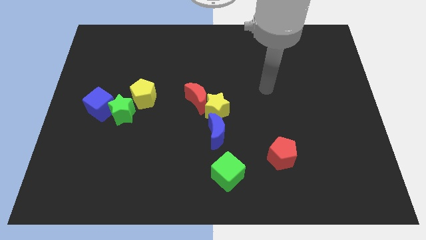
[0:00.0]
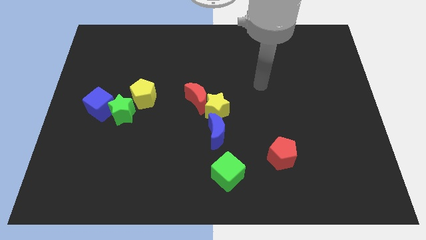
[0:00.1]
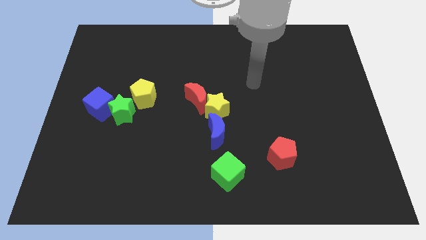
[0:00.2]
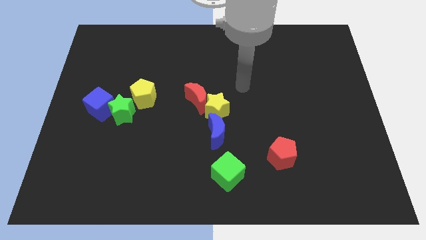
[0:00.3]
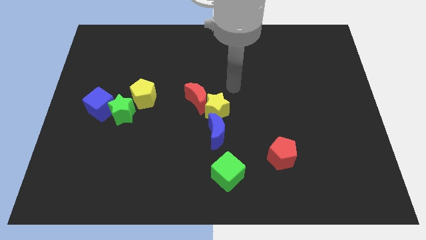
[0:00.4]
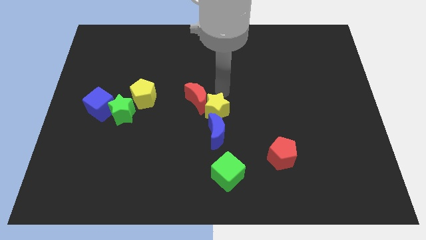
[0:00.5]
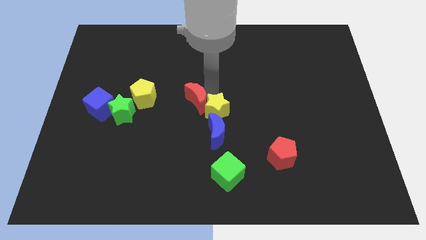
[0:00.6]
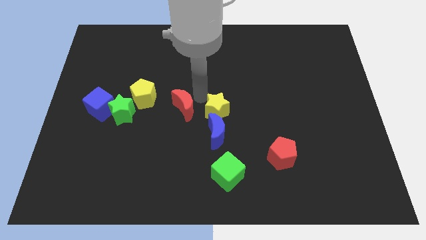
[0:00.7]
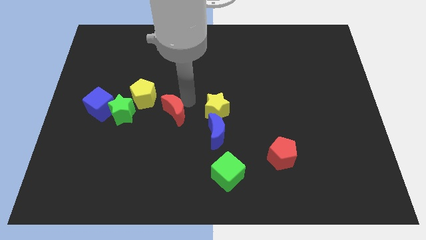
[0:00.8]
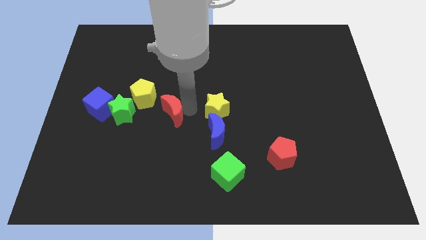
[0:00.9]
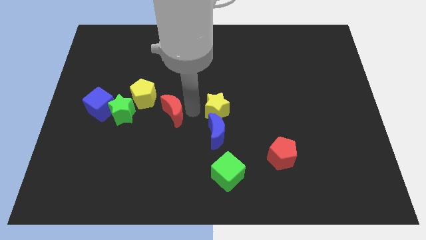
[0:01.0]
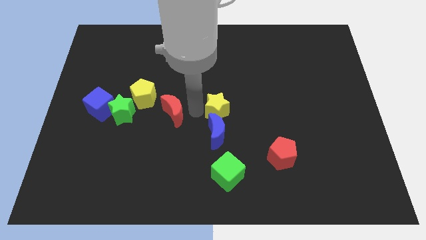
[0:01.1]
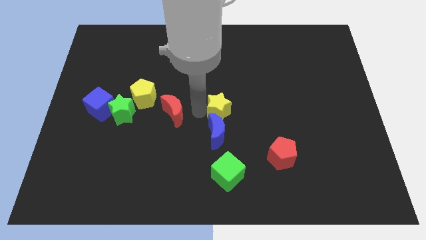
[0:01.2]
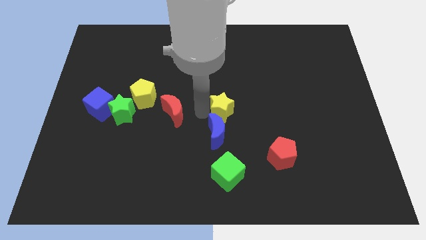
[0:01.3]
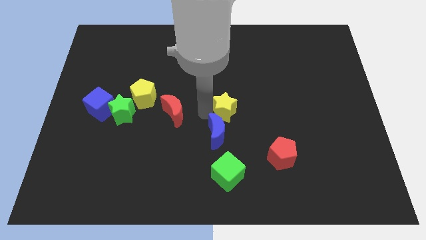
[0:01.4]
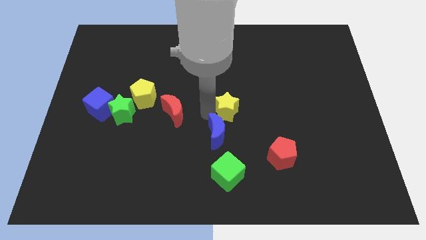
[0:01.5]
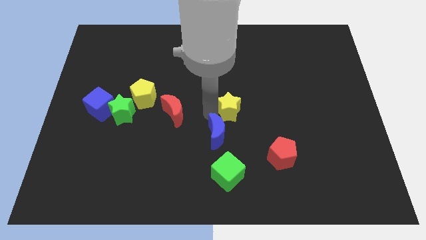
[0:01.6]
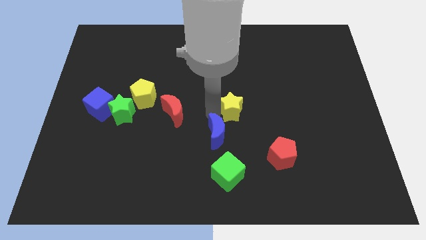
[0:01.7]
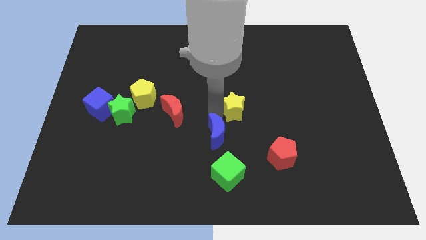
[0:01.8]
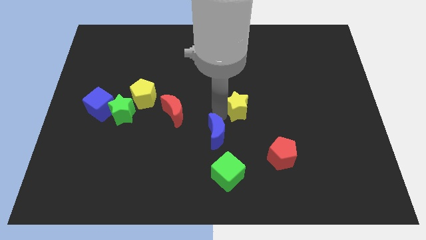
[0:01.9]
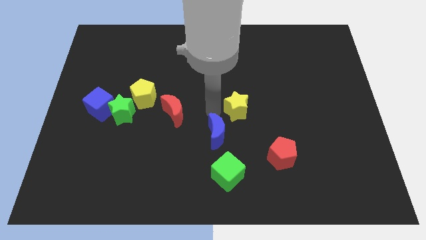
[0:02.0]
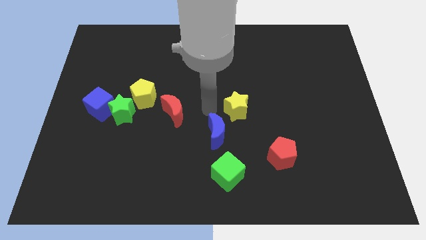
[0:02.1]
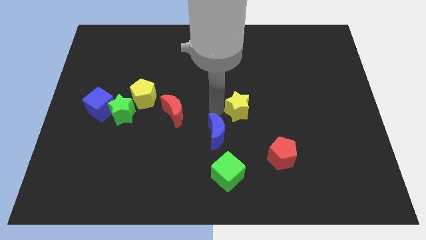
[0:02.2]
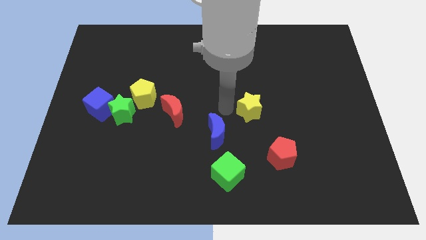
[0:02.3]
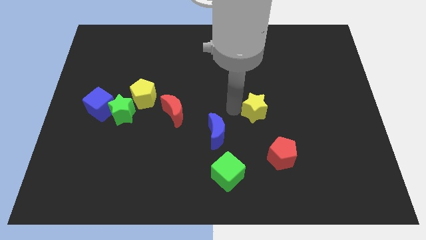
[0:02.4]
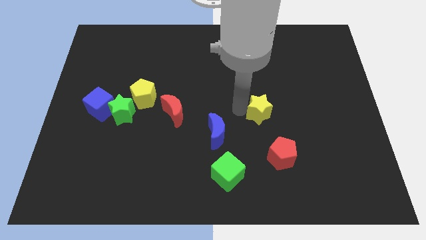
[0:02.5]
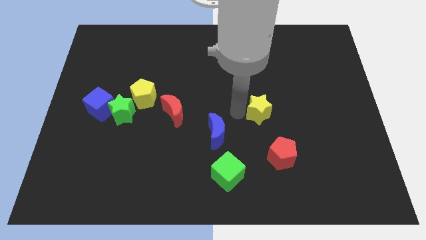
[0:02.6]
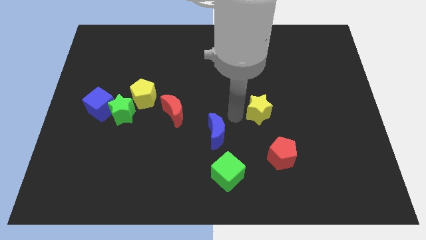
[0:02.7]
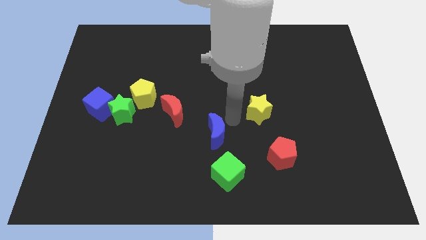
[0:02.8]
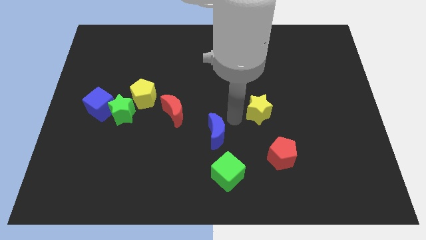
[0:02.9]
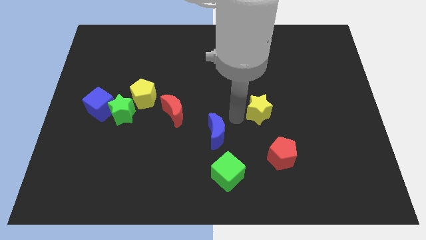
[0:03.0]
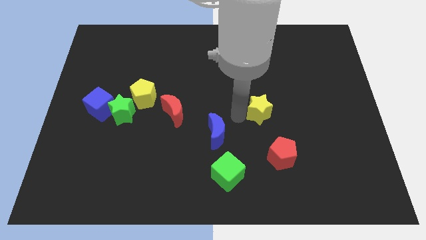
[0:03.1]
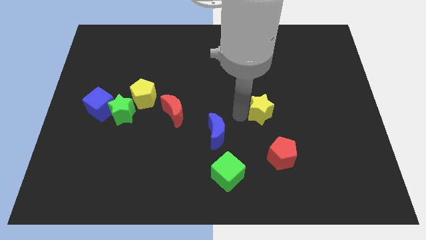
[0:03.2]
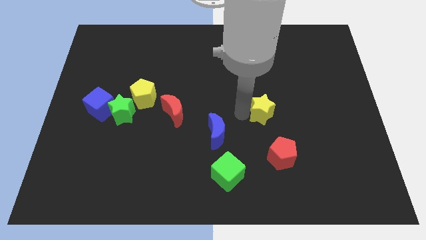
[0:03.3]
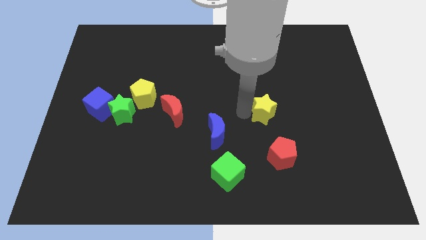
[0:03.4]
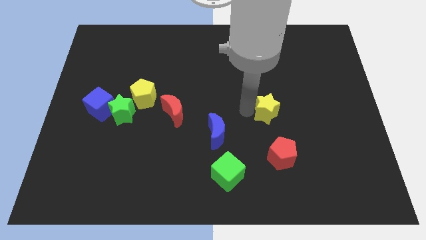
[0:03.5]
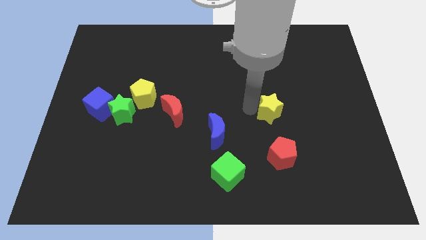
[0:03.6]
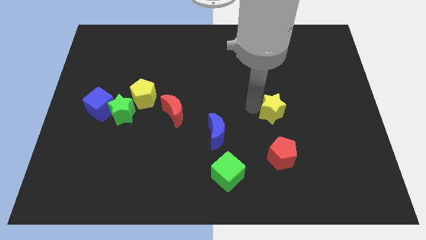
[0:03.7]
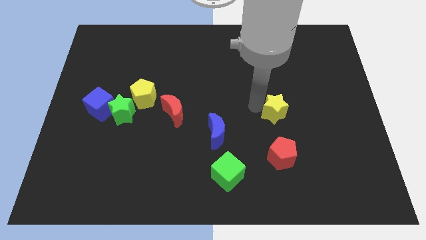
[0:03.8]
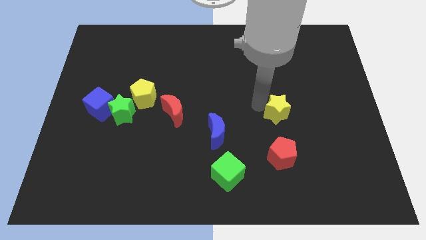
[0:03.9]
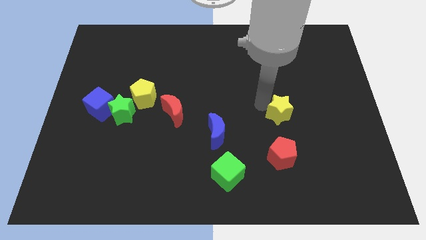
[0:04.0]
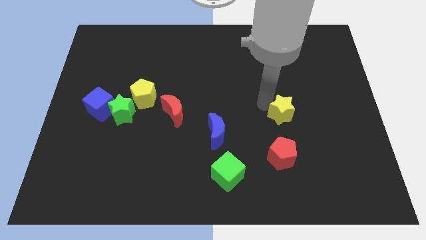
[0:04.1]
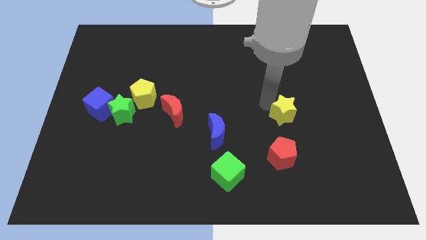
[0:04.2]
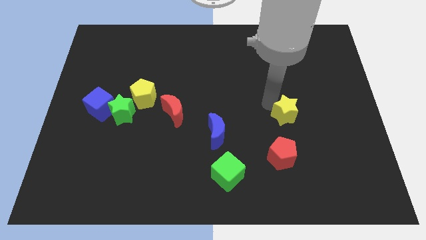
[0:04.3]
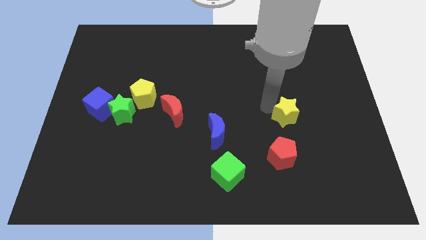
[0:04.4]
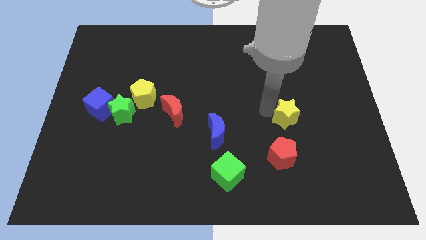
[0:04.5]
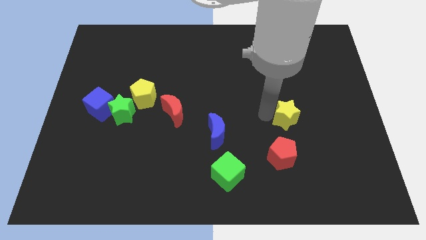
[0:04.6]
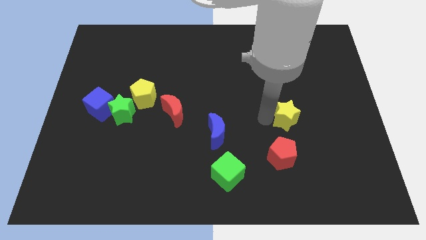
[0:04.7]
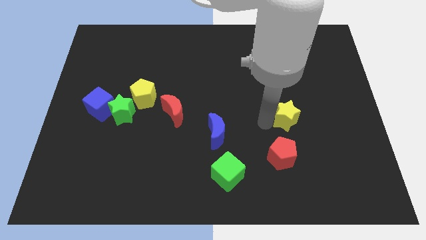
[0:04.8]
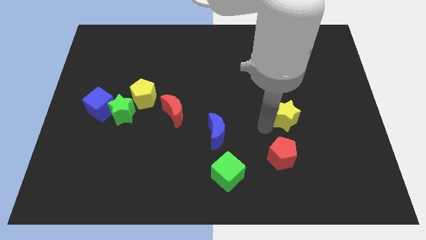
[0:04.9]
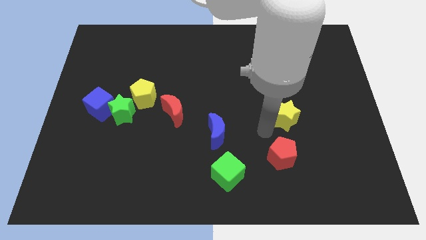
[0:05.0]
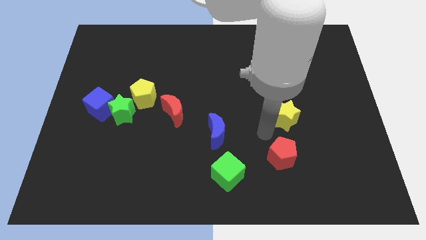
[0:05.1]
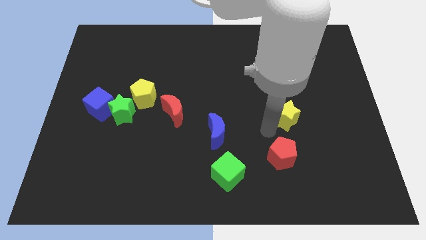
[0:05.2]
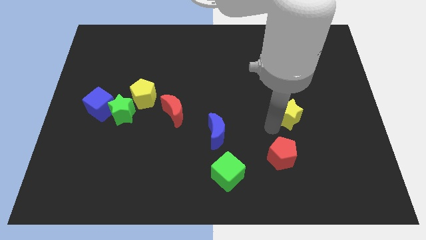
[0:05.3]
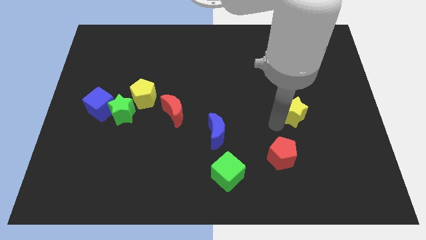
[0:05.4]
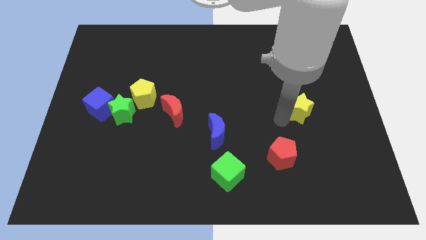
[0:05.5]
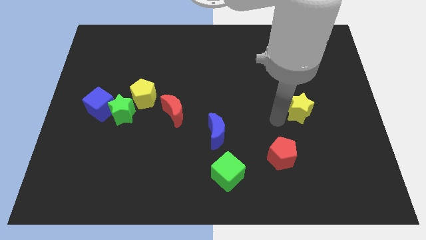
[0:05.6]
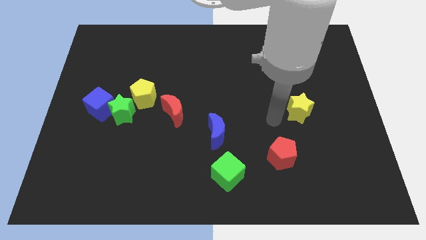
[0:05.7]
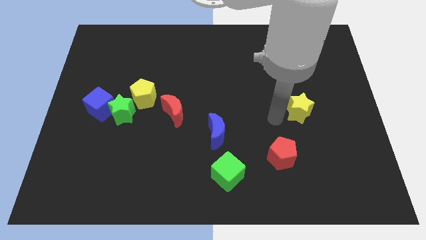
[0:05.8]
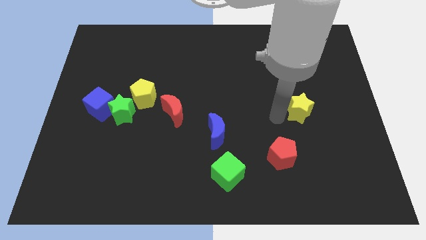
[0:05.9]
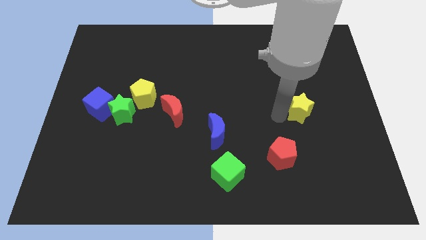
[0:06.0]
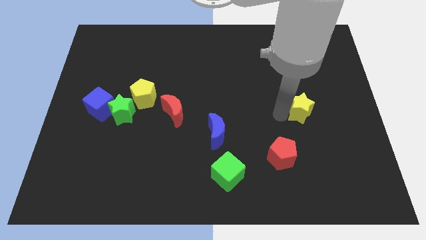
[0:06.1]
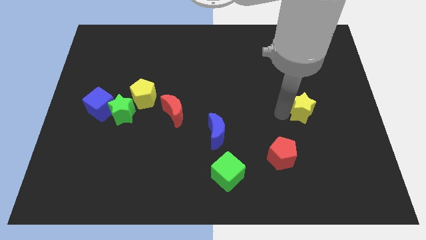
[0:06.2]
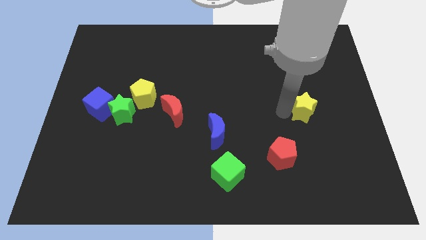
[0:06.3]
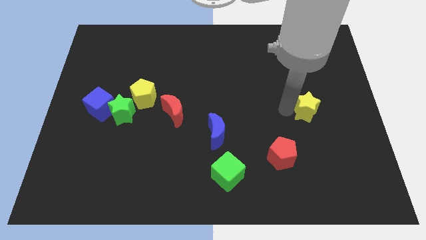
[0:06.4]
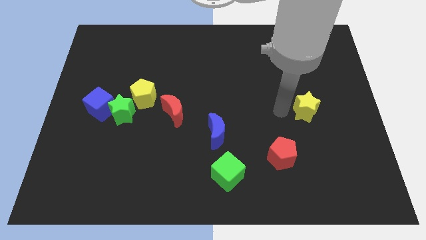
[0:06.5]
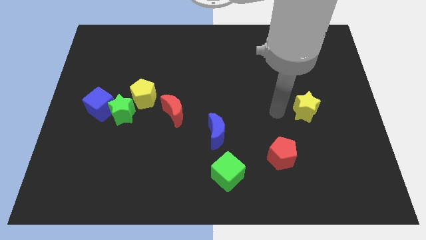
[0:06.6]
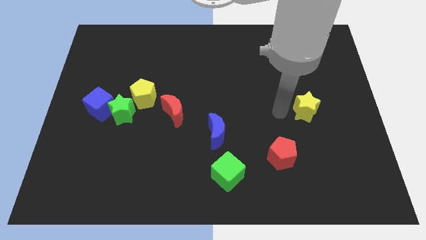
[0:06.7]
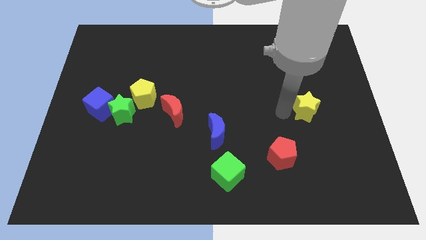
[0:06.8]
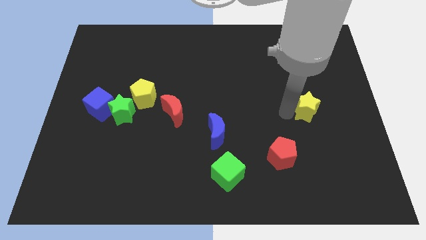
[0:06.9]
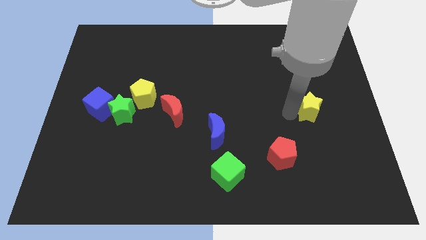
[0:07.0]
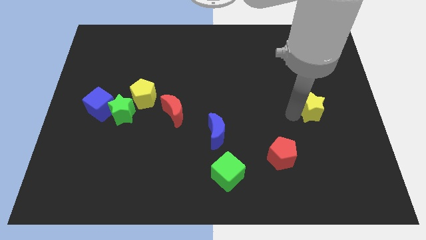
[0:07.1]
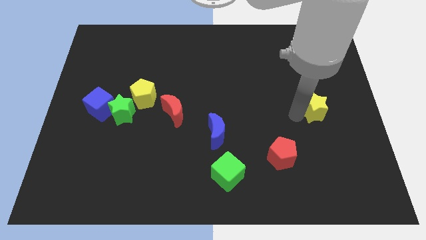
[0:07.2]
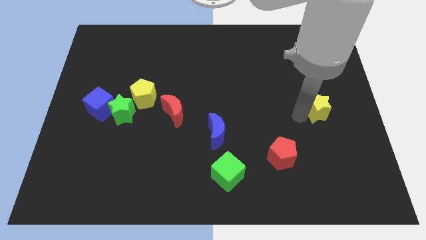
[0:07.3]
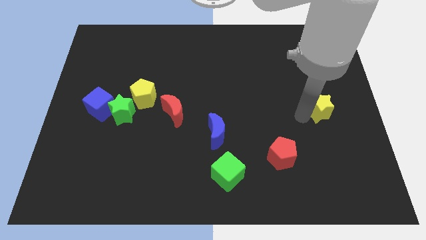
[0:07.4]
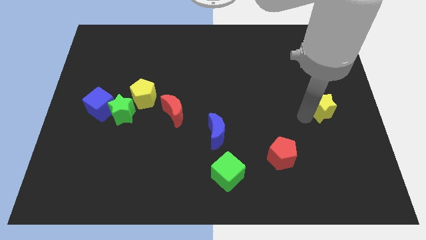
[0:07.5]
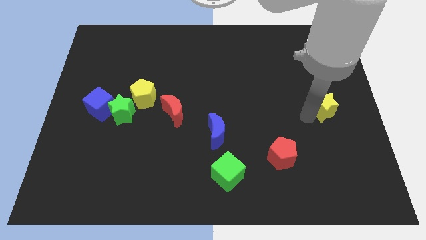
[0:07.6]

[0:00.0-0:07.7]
move the yellow star to the center right
